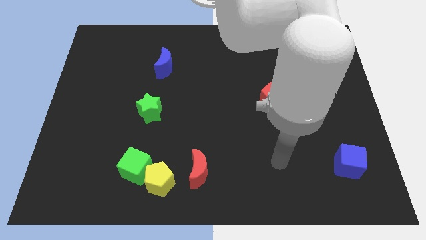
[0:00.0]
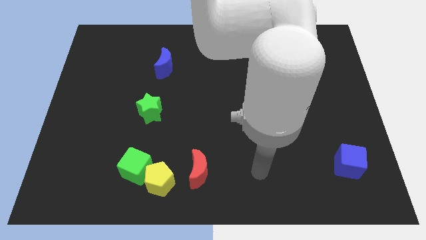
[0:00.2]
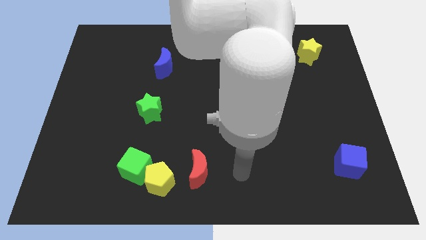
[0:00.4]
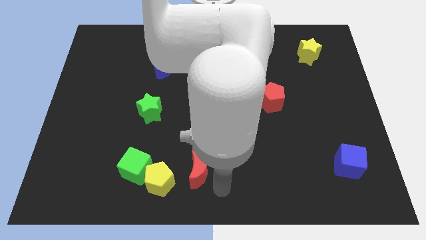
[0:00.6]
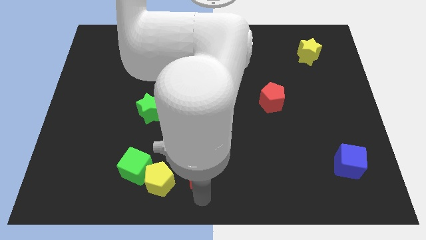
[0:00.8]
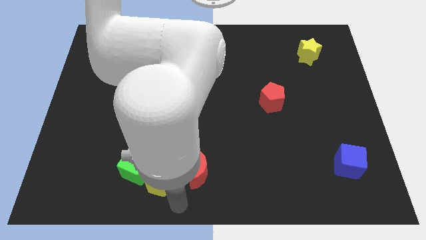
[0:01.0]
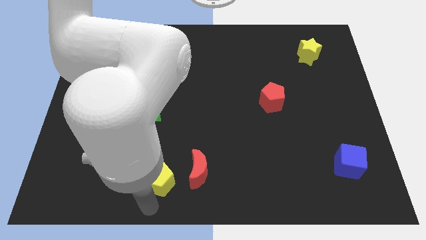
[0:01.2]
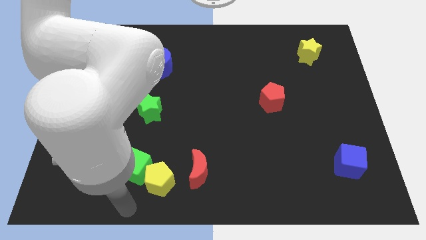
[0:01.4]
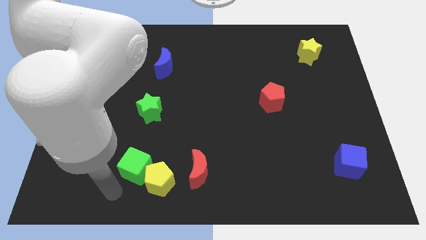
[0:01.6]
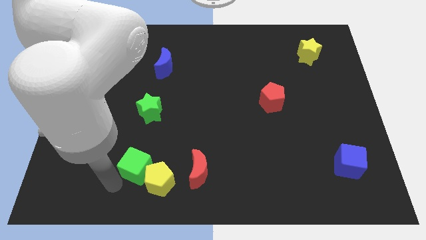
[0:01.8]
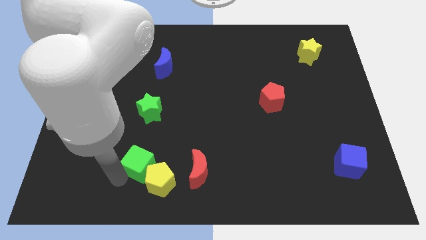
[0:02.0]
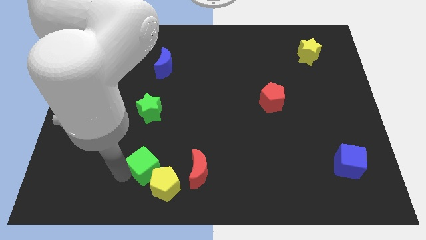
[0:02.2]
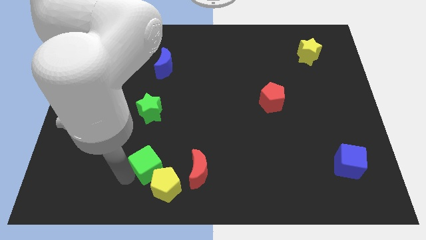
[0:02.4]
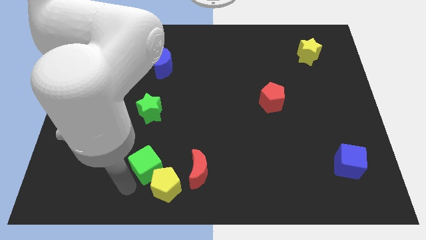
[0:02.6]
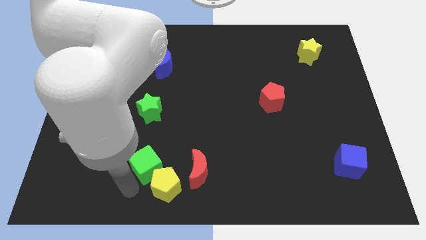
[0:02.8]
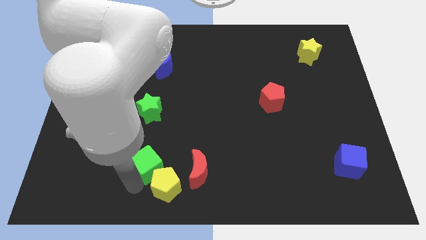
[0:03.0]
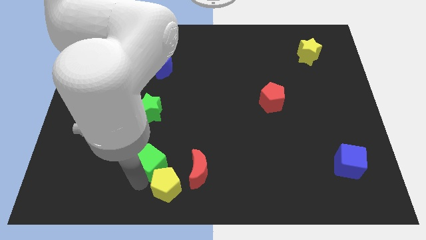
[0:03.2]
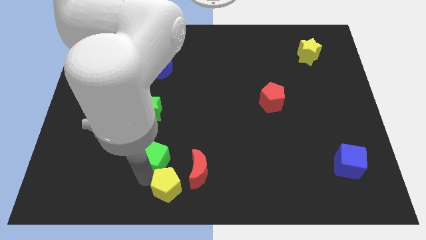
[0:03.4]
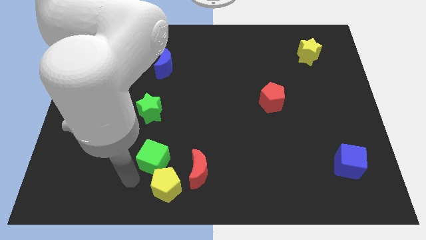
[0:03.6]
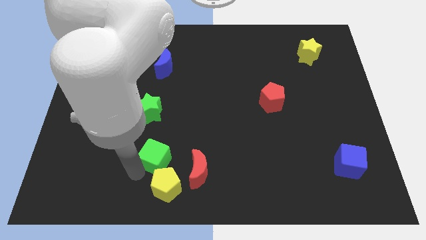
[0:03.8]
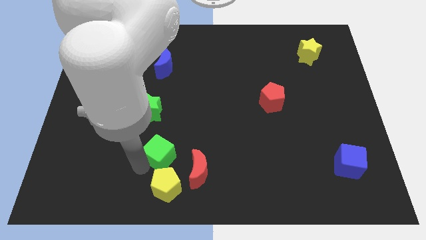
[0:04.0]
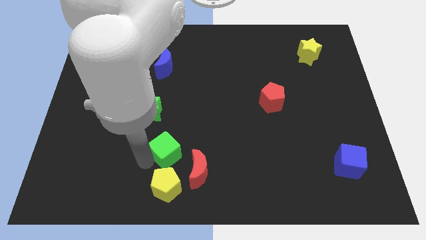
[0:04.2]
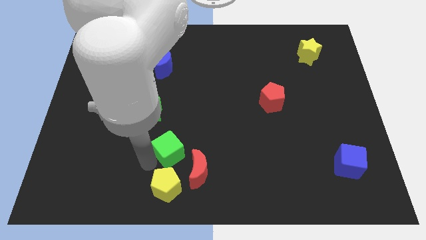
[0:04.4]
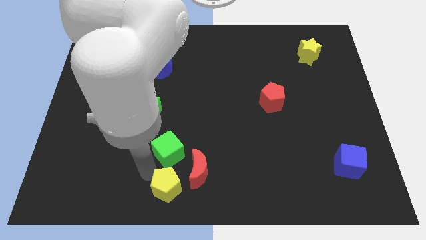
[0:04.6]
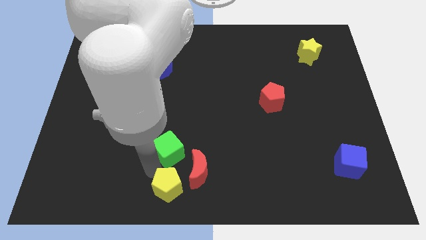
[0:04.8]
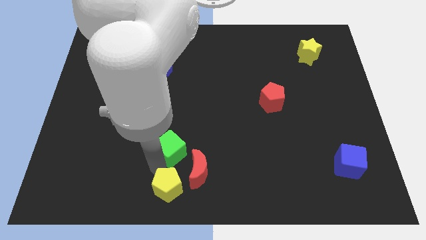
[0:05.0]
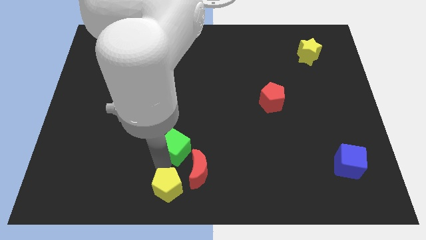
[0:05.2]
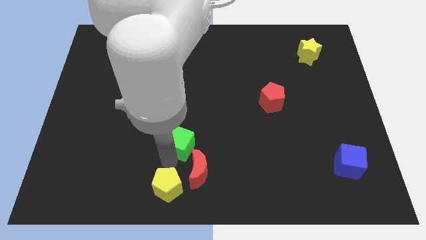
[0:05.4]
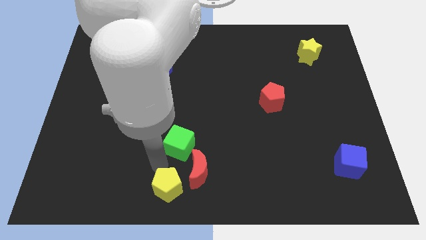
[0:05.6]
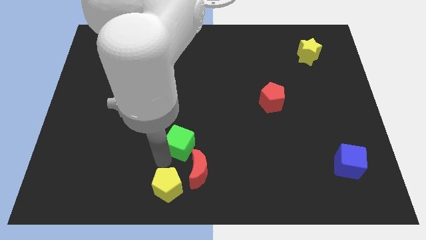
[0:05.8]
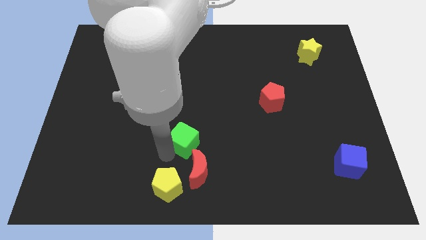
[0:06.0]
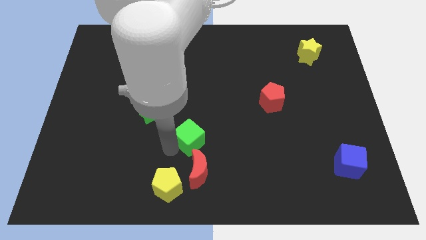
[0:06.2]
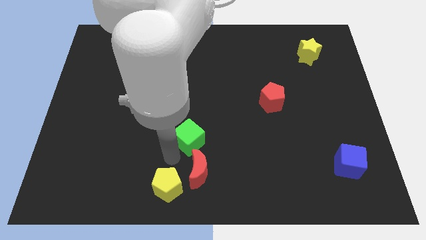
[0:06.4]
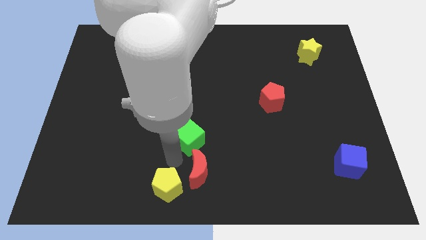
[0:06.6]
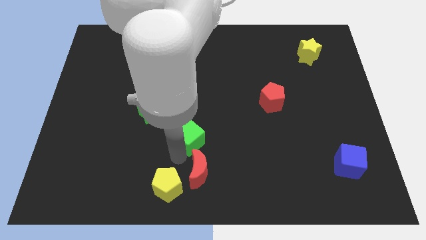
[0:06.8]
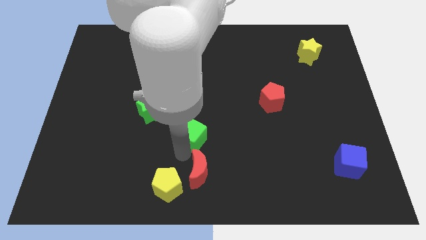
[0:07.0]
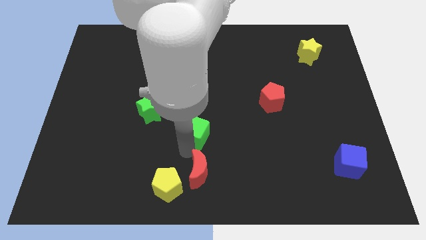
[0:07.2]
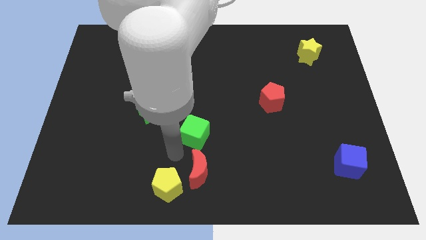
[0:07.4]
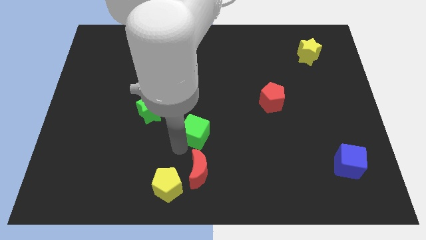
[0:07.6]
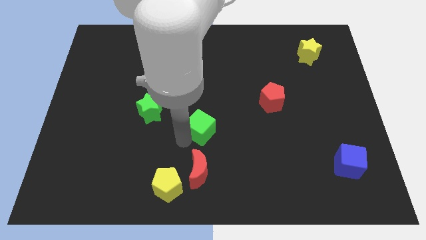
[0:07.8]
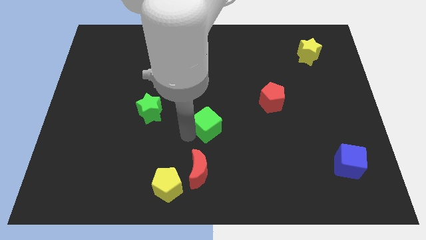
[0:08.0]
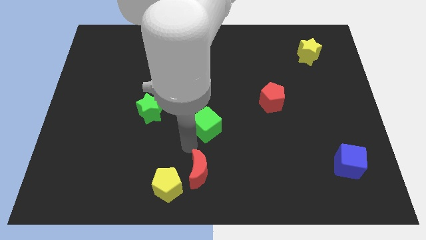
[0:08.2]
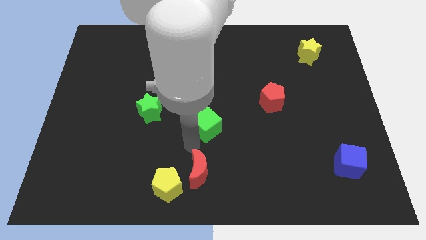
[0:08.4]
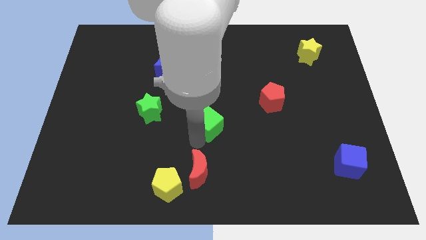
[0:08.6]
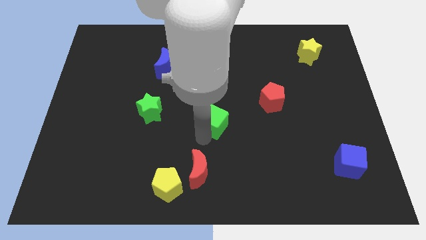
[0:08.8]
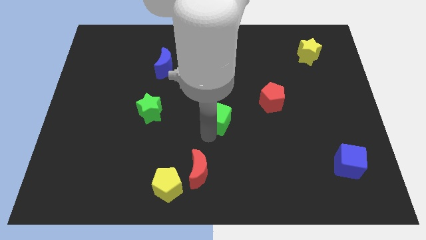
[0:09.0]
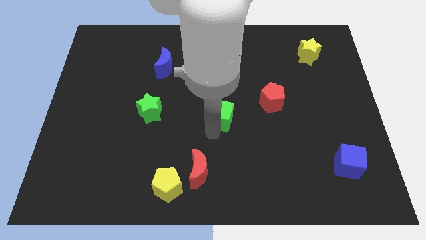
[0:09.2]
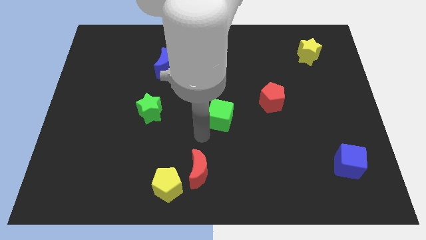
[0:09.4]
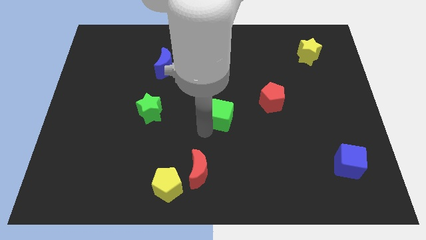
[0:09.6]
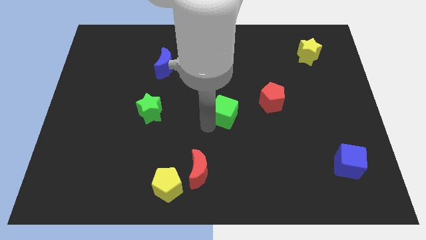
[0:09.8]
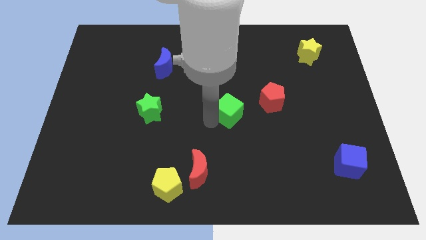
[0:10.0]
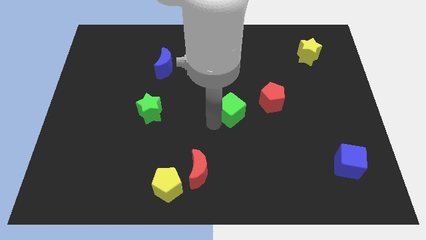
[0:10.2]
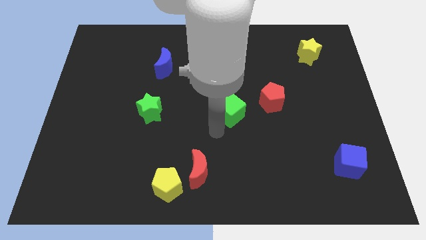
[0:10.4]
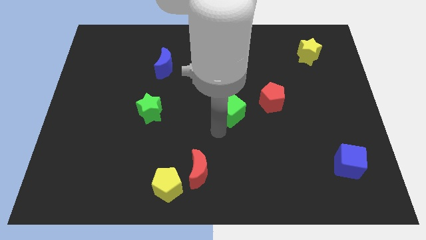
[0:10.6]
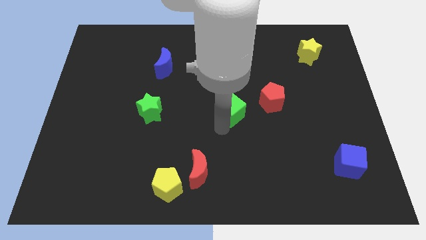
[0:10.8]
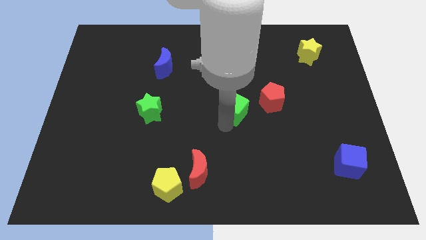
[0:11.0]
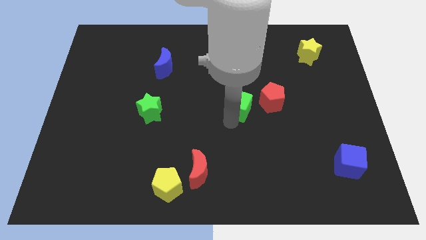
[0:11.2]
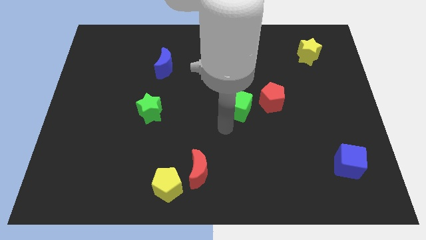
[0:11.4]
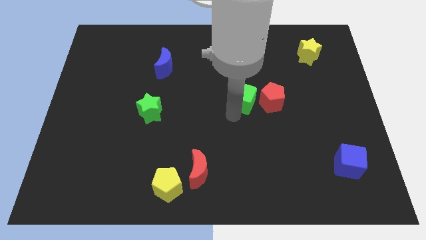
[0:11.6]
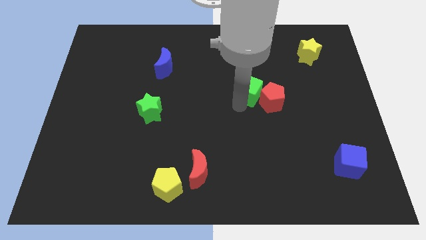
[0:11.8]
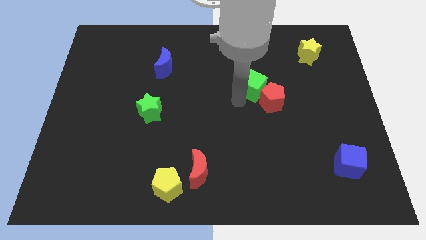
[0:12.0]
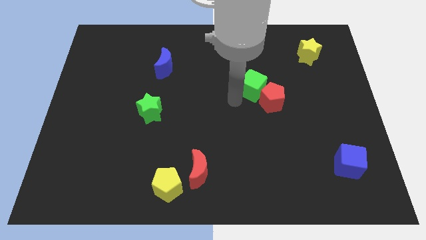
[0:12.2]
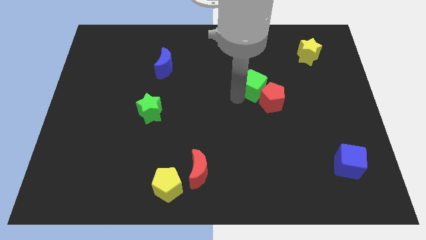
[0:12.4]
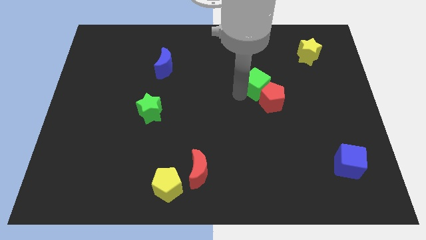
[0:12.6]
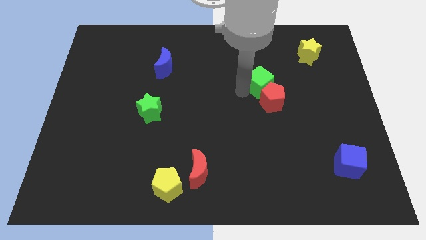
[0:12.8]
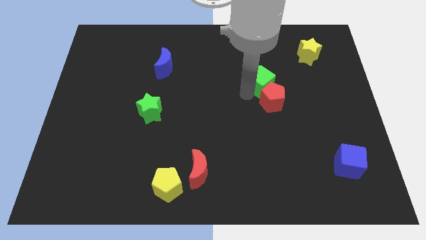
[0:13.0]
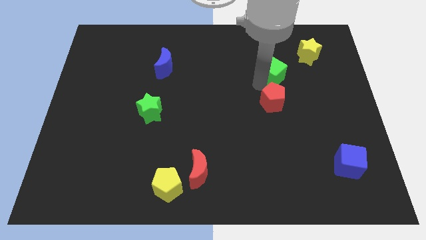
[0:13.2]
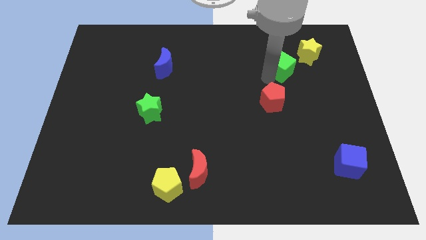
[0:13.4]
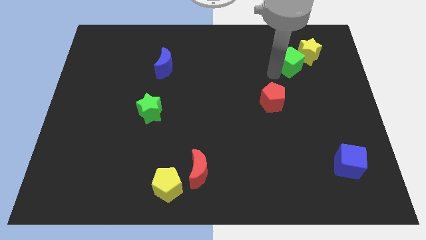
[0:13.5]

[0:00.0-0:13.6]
push the green cube close to the yellow star
